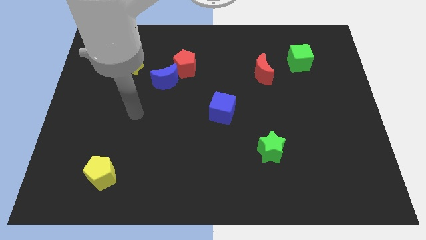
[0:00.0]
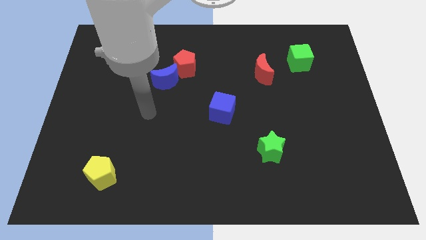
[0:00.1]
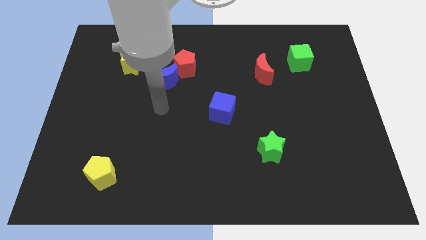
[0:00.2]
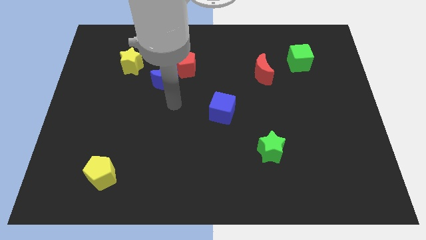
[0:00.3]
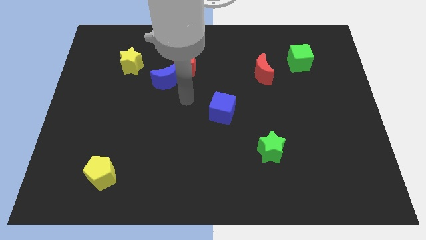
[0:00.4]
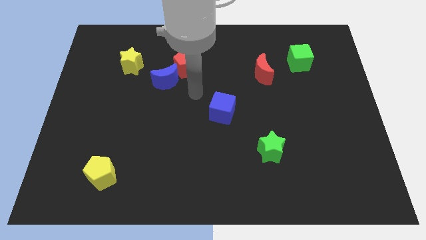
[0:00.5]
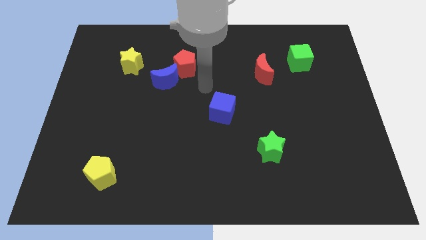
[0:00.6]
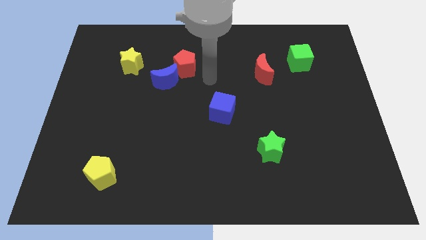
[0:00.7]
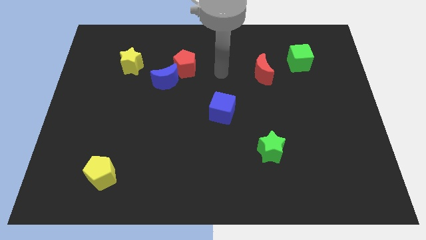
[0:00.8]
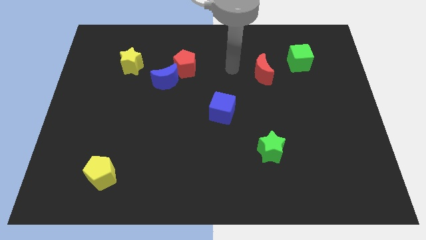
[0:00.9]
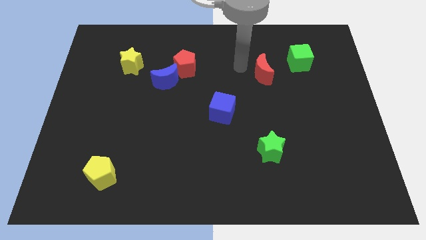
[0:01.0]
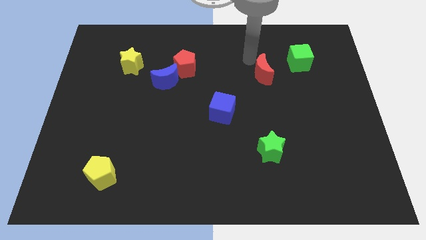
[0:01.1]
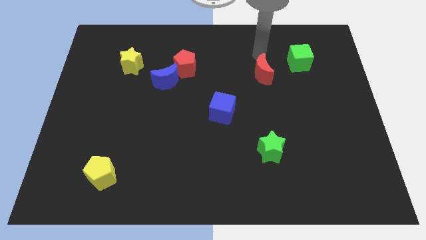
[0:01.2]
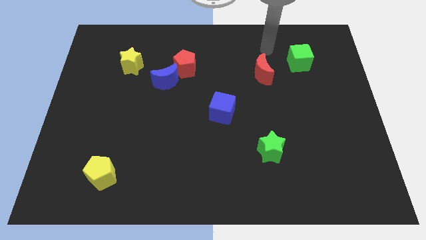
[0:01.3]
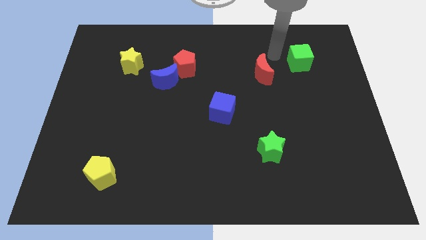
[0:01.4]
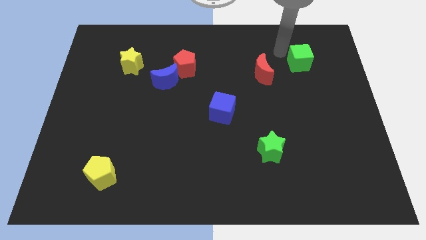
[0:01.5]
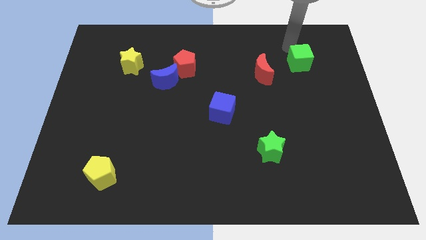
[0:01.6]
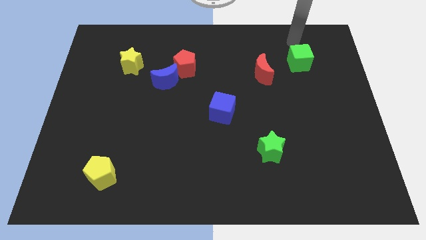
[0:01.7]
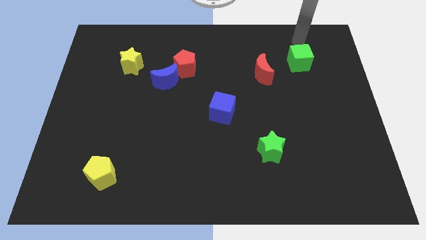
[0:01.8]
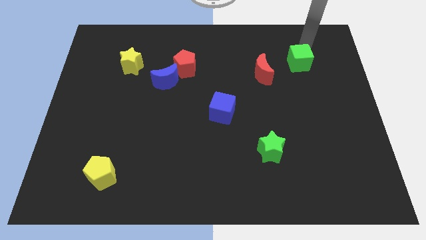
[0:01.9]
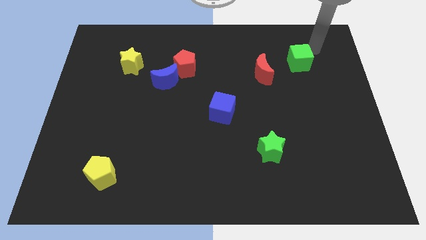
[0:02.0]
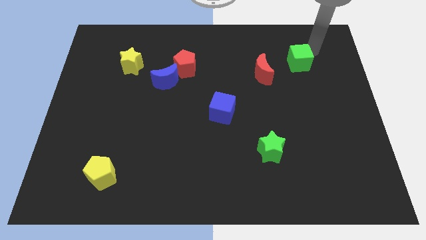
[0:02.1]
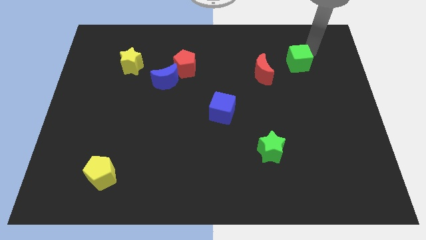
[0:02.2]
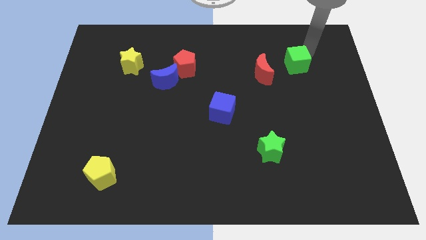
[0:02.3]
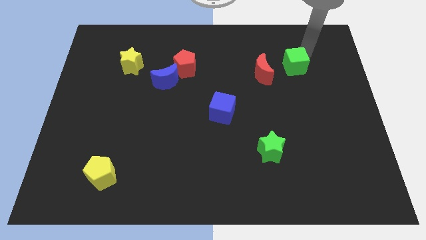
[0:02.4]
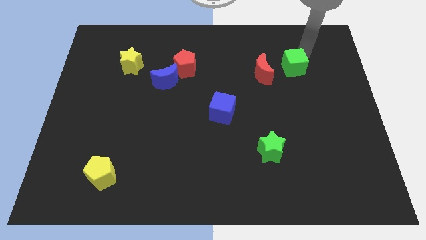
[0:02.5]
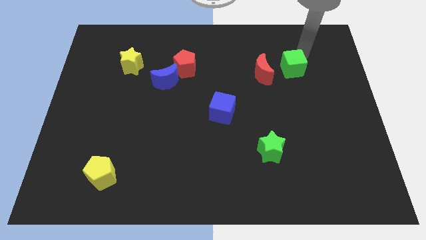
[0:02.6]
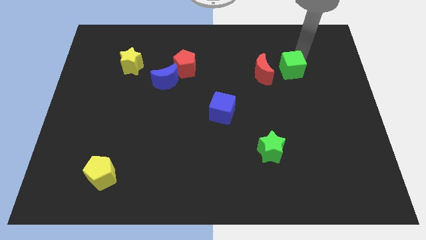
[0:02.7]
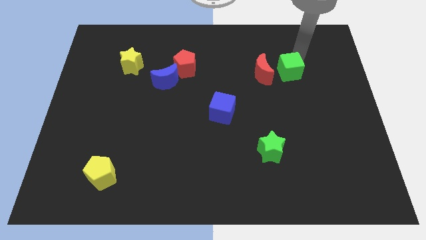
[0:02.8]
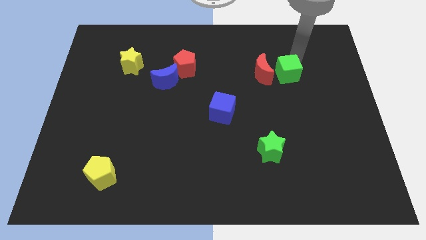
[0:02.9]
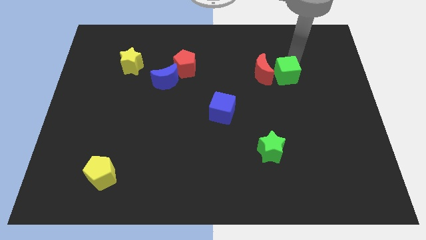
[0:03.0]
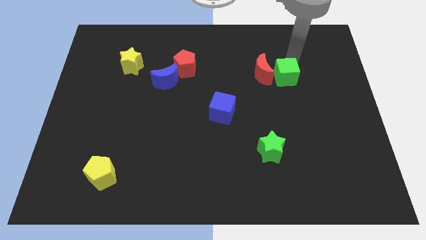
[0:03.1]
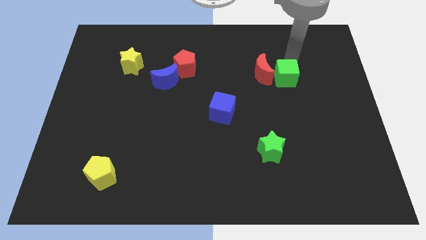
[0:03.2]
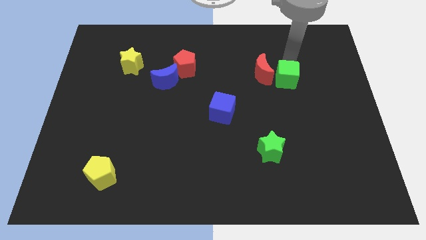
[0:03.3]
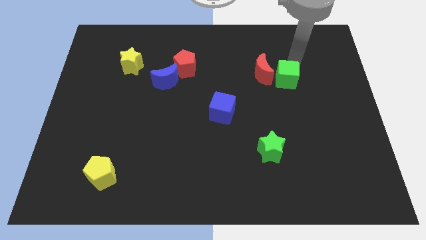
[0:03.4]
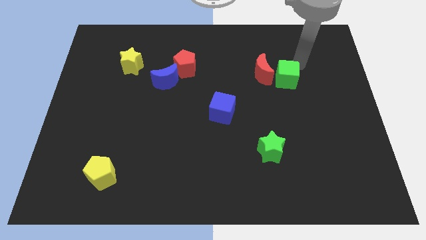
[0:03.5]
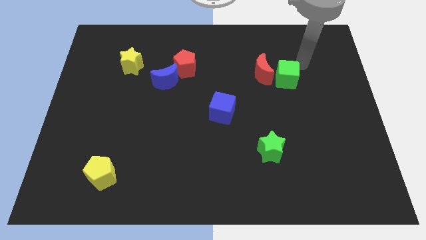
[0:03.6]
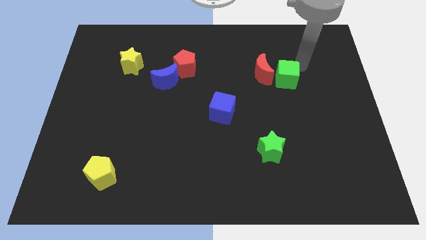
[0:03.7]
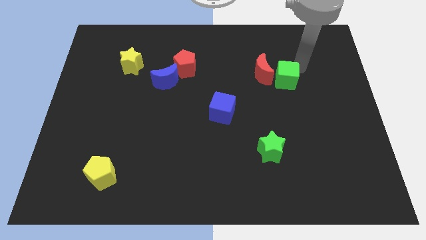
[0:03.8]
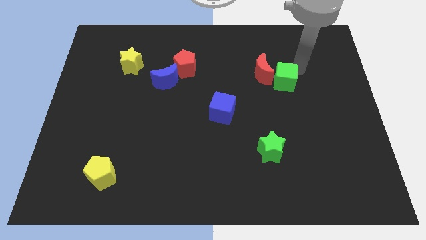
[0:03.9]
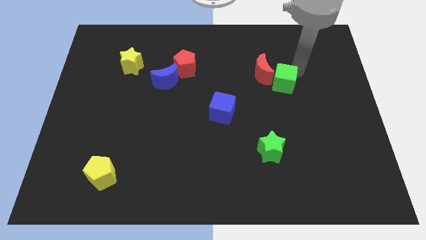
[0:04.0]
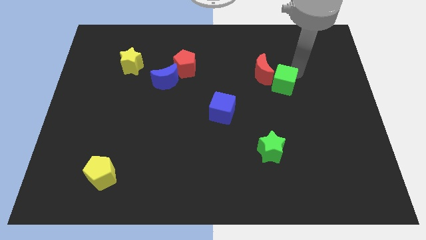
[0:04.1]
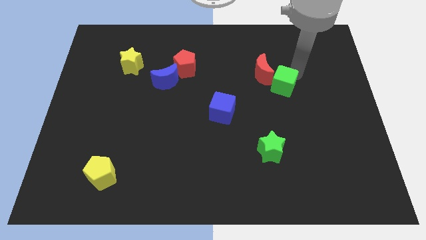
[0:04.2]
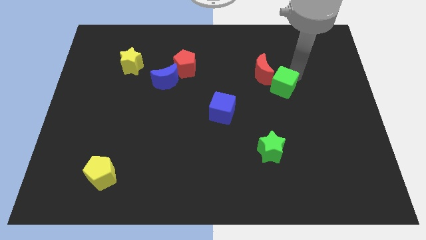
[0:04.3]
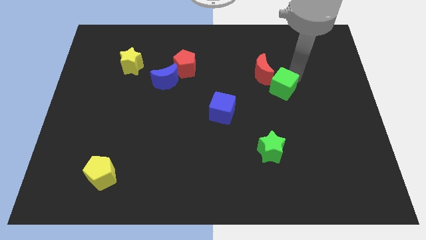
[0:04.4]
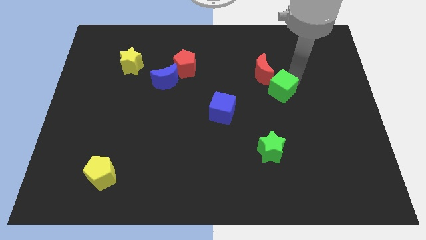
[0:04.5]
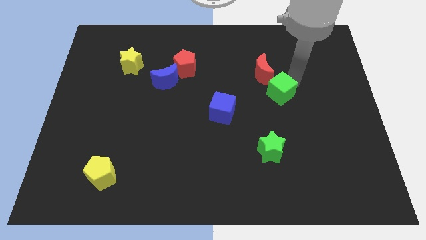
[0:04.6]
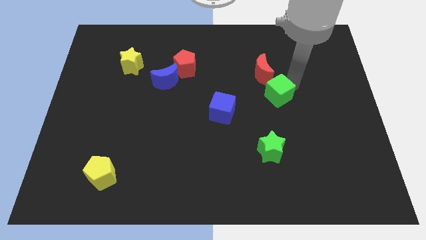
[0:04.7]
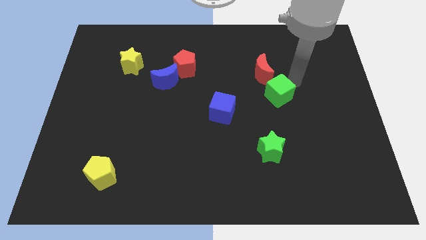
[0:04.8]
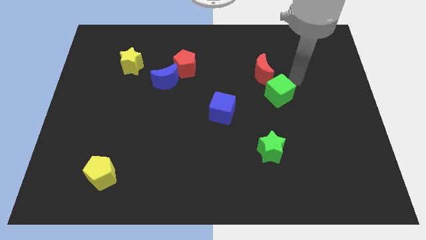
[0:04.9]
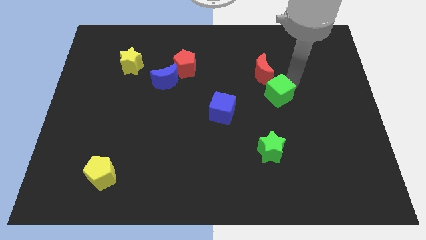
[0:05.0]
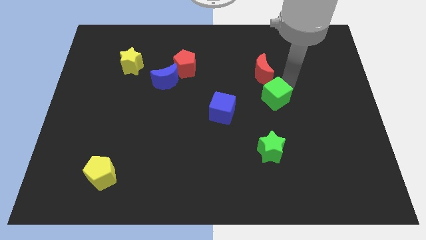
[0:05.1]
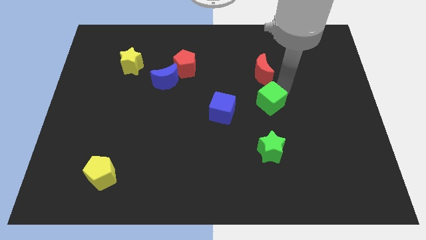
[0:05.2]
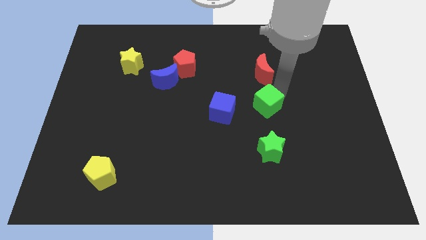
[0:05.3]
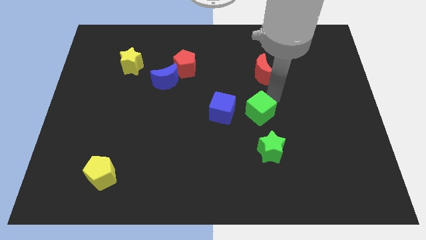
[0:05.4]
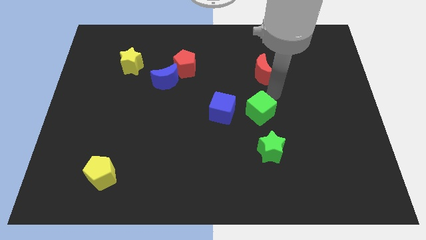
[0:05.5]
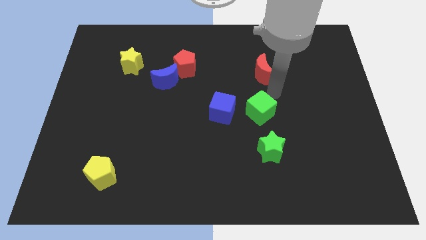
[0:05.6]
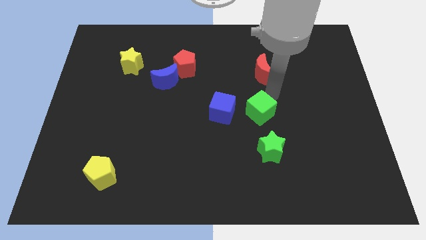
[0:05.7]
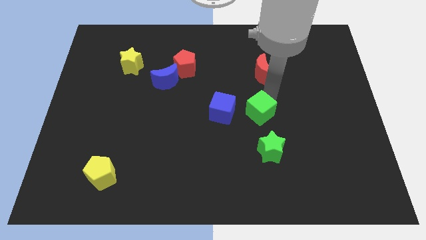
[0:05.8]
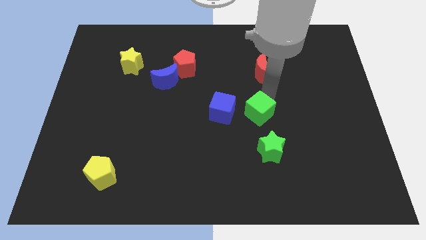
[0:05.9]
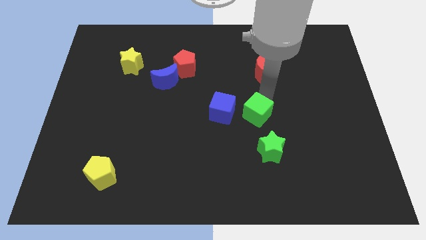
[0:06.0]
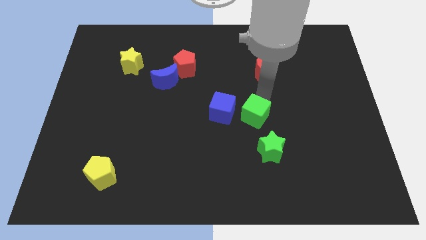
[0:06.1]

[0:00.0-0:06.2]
move the green cube diagonally down and to the right of the blue cube
